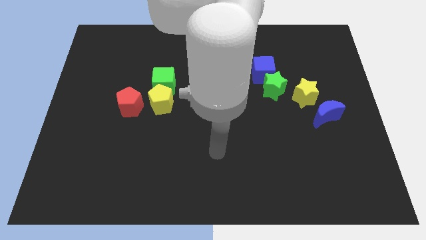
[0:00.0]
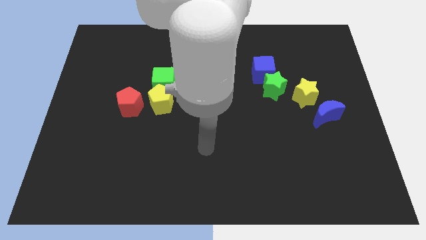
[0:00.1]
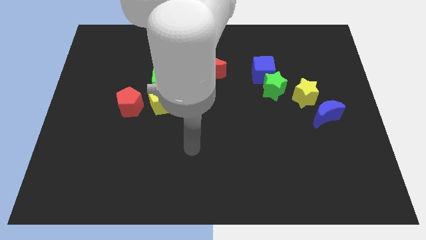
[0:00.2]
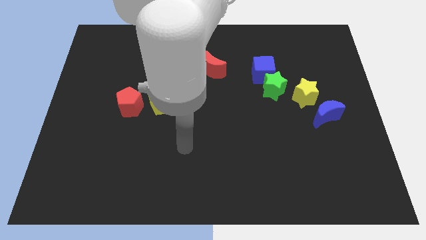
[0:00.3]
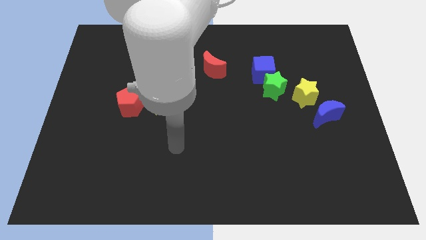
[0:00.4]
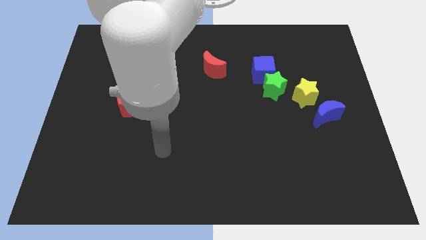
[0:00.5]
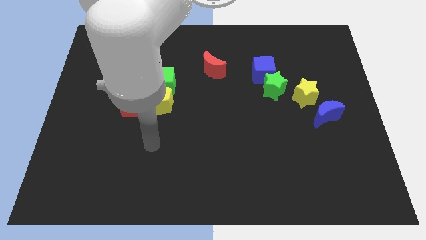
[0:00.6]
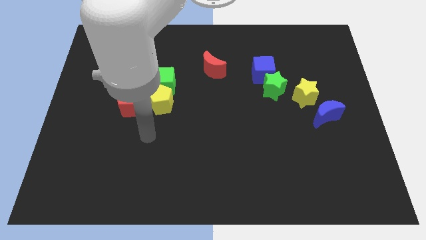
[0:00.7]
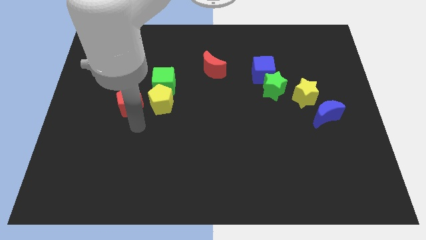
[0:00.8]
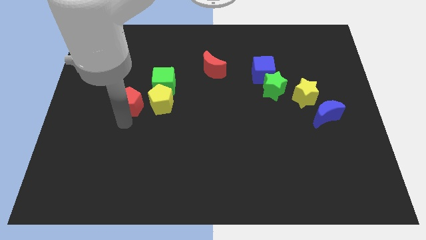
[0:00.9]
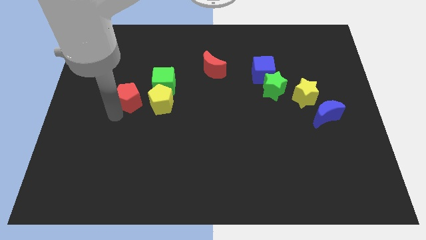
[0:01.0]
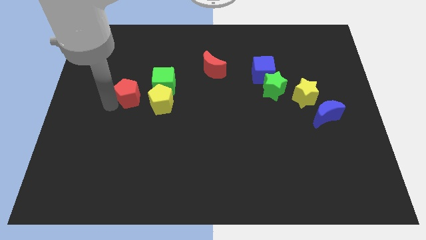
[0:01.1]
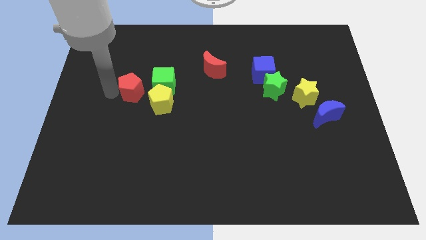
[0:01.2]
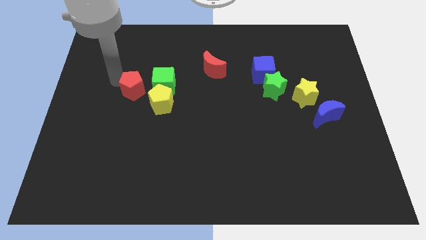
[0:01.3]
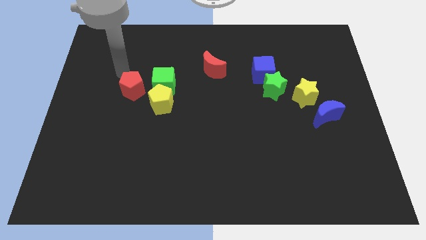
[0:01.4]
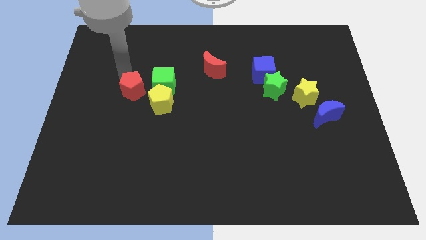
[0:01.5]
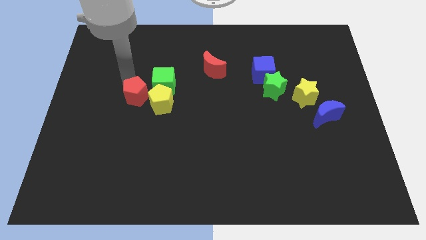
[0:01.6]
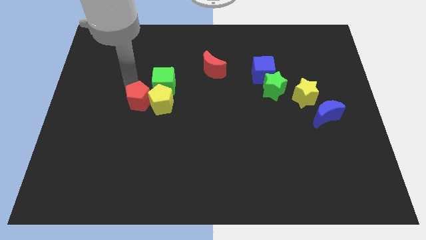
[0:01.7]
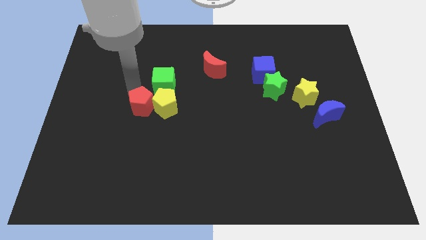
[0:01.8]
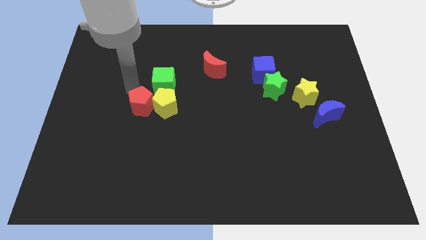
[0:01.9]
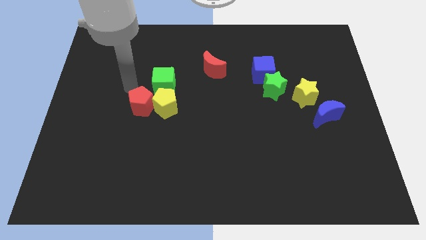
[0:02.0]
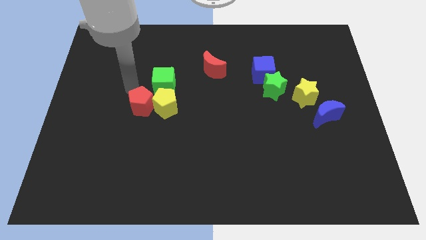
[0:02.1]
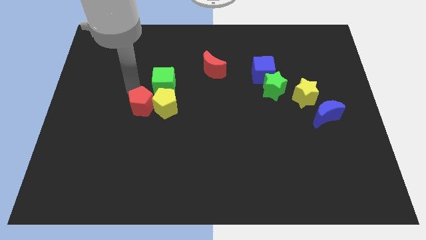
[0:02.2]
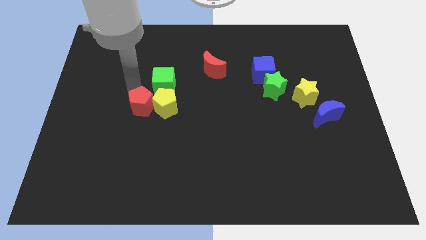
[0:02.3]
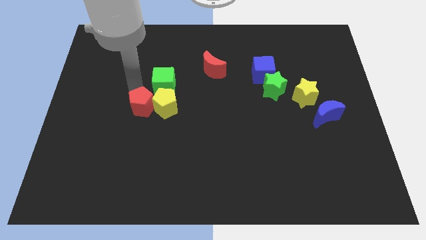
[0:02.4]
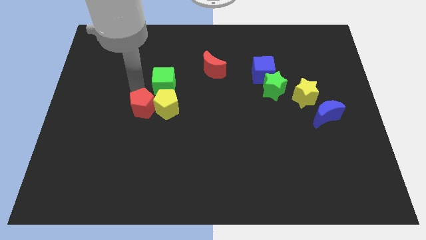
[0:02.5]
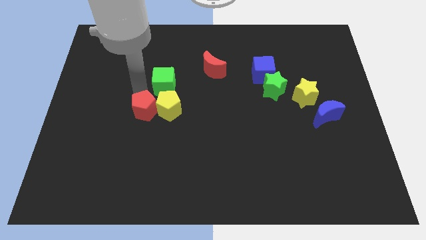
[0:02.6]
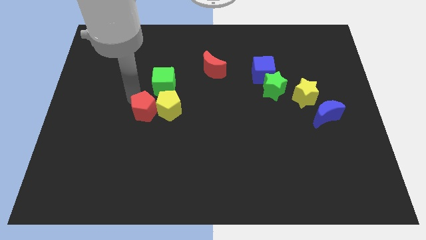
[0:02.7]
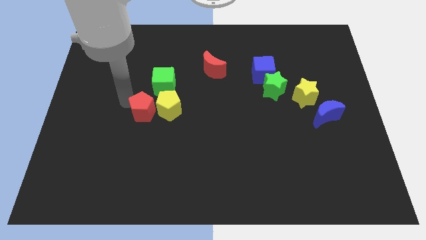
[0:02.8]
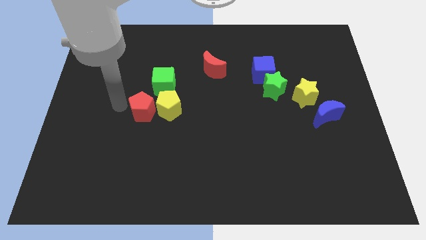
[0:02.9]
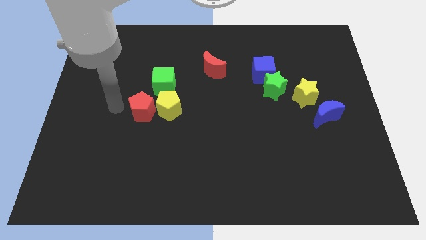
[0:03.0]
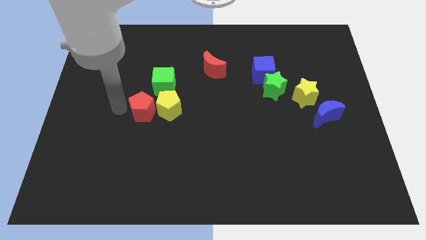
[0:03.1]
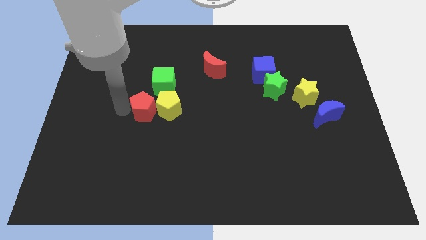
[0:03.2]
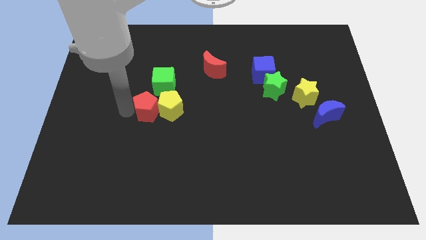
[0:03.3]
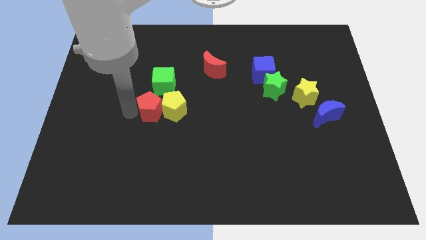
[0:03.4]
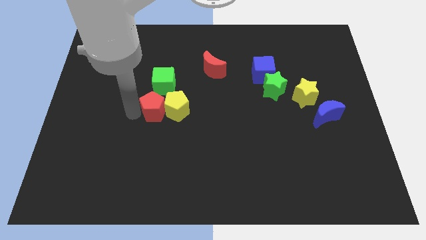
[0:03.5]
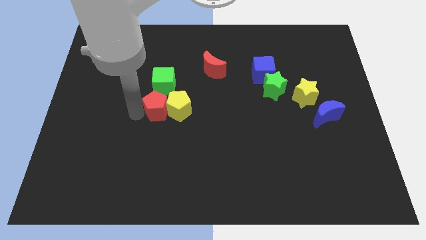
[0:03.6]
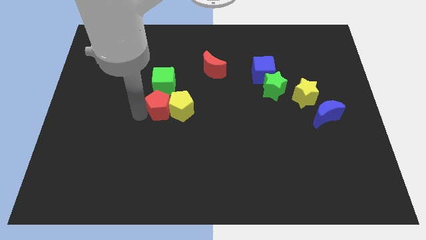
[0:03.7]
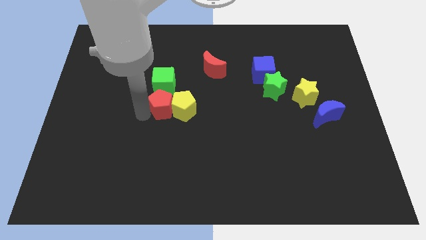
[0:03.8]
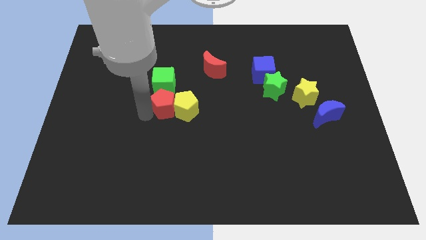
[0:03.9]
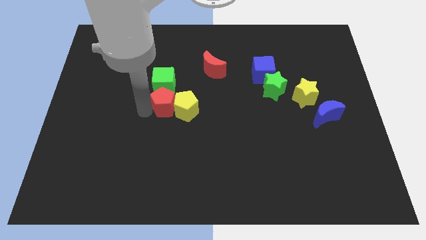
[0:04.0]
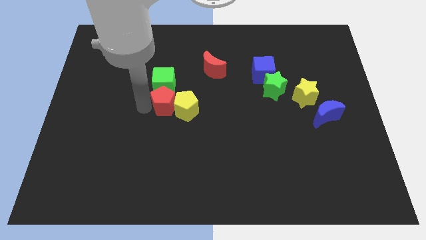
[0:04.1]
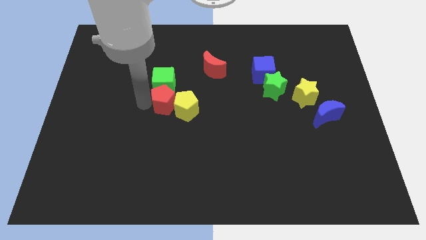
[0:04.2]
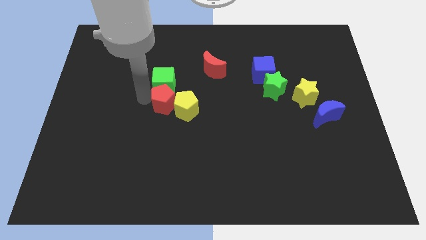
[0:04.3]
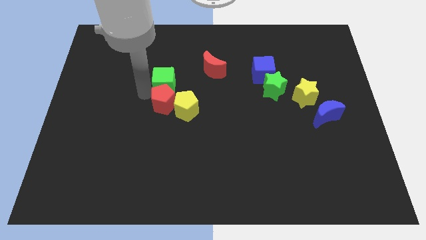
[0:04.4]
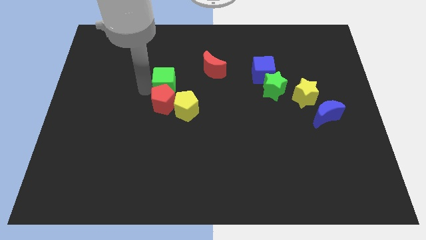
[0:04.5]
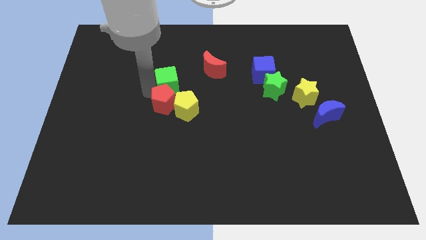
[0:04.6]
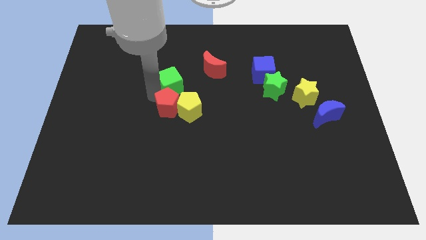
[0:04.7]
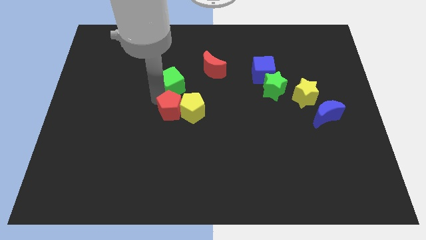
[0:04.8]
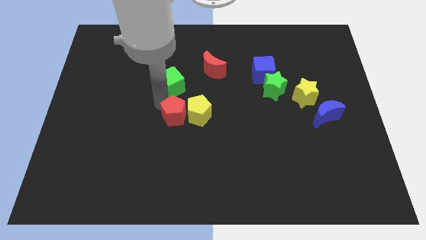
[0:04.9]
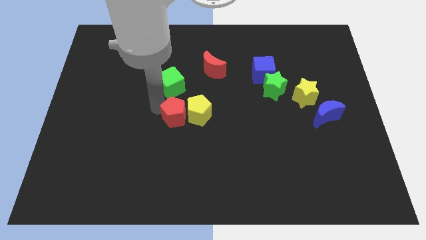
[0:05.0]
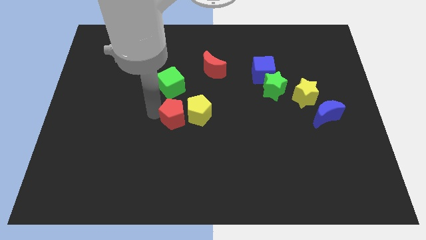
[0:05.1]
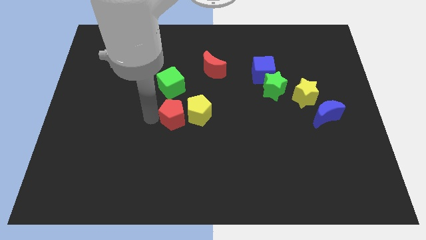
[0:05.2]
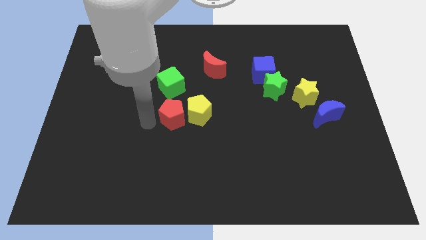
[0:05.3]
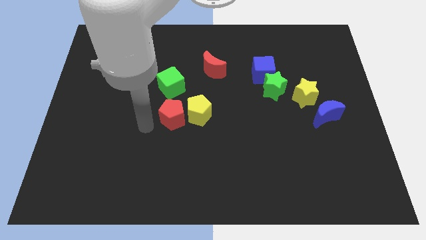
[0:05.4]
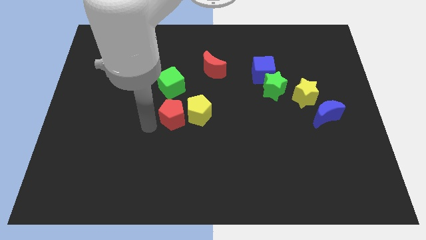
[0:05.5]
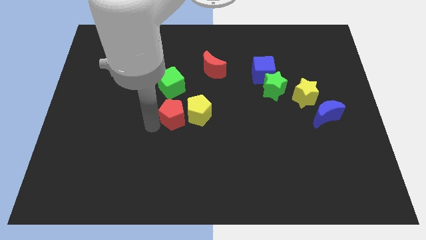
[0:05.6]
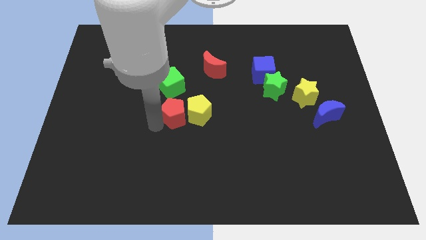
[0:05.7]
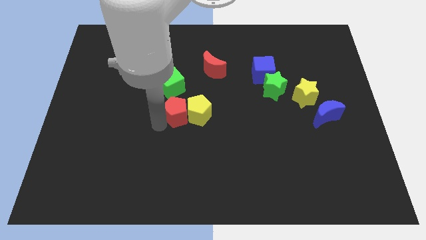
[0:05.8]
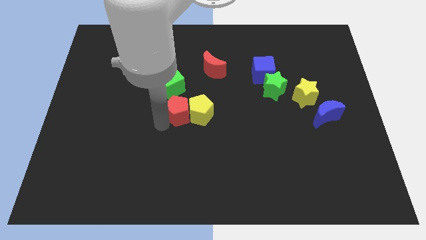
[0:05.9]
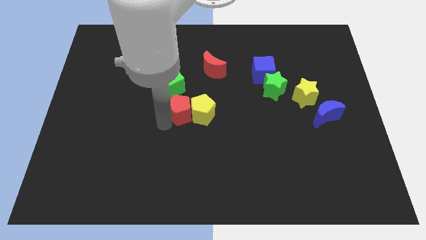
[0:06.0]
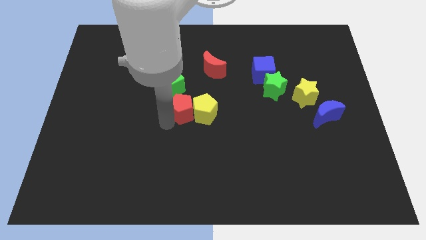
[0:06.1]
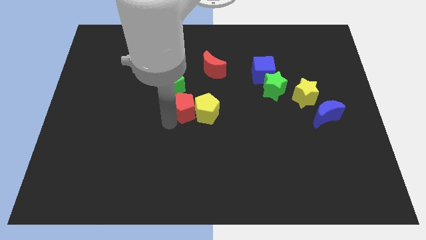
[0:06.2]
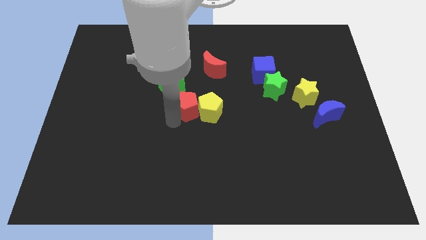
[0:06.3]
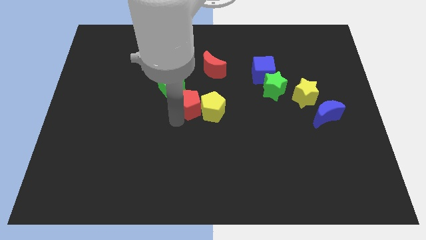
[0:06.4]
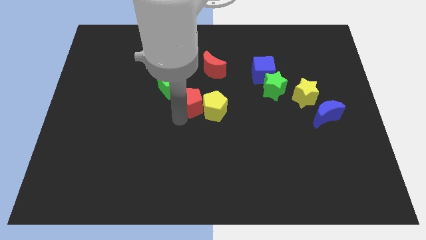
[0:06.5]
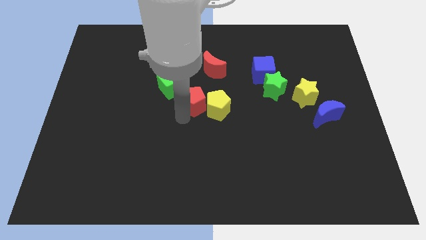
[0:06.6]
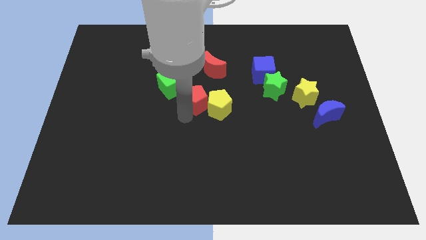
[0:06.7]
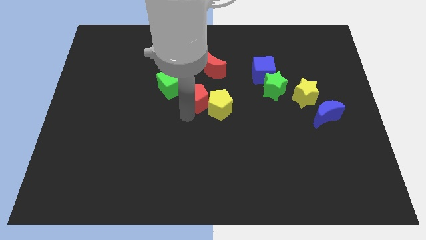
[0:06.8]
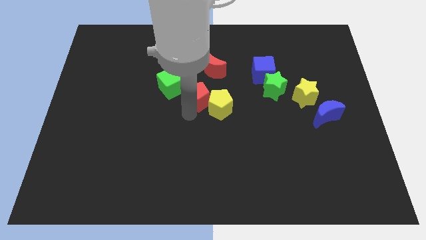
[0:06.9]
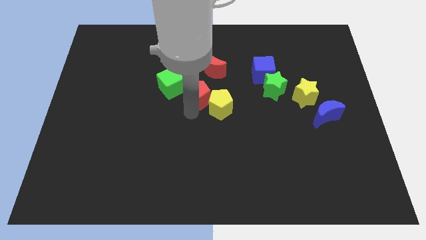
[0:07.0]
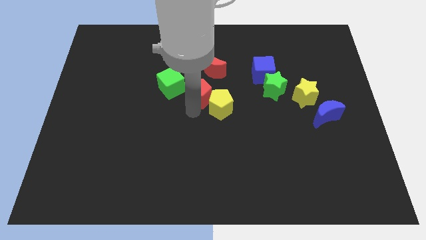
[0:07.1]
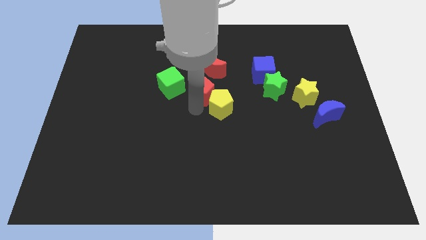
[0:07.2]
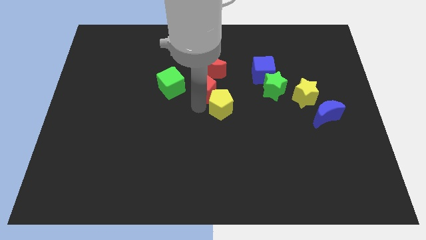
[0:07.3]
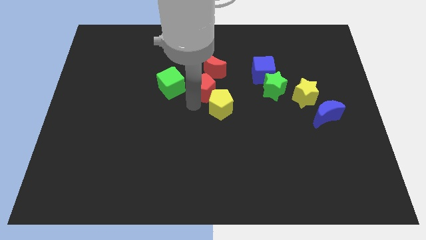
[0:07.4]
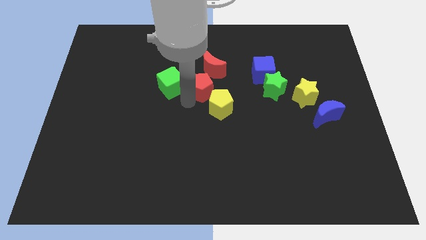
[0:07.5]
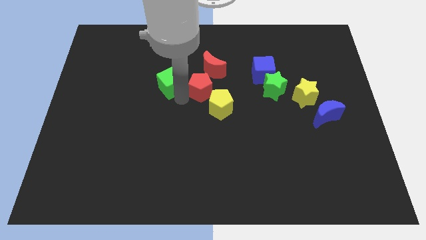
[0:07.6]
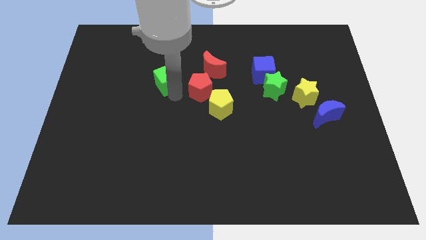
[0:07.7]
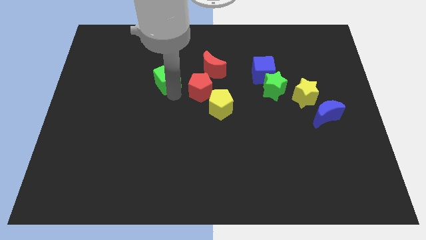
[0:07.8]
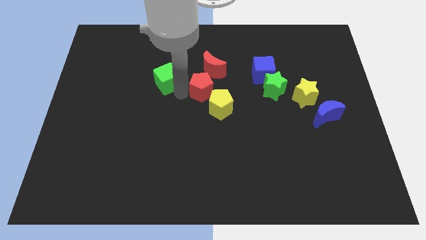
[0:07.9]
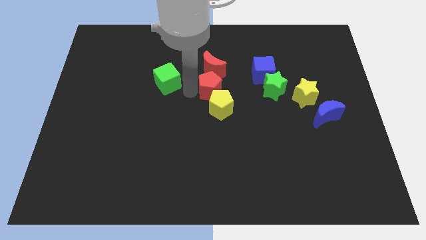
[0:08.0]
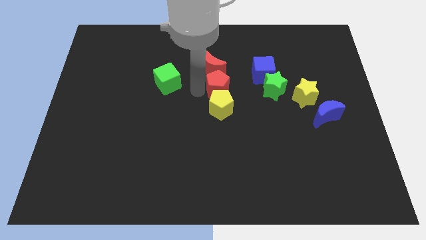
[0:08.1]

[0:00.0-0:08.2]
push the red pentagon to the bottom right side of the red moon
